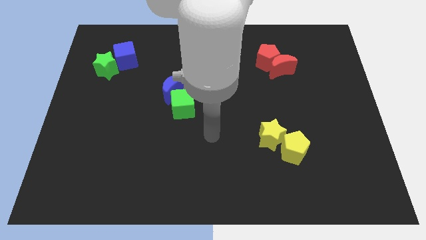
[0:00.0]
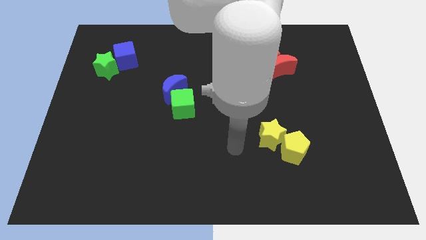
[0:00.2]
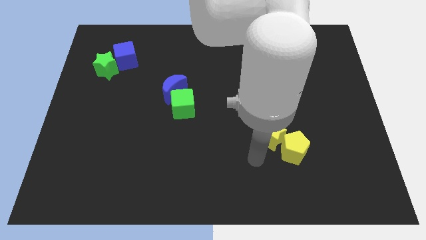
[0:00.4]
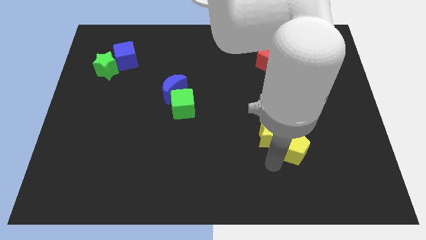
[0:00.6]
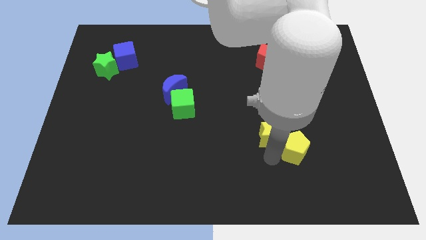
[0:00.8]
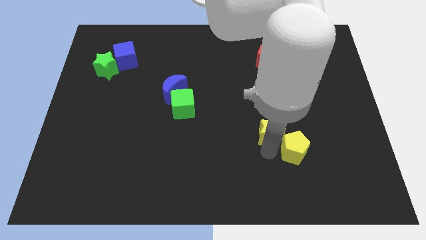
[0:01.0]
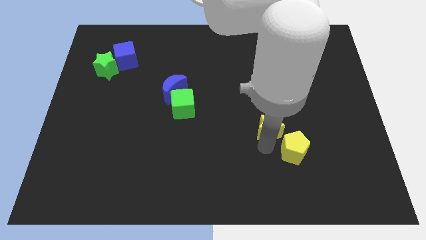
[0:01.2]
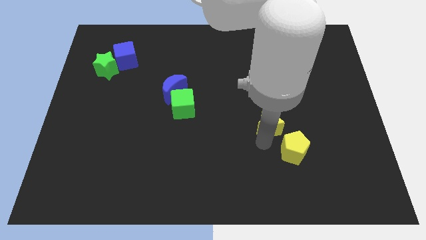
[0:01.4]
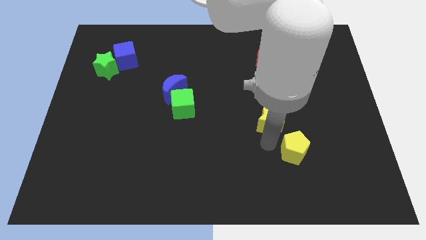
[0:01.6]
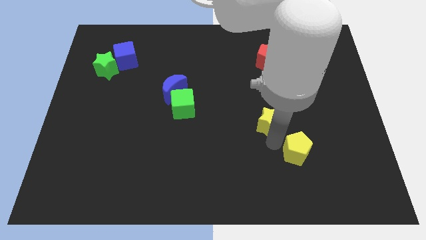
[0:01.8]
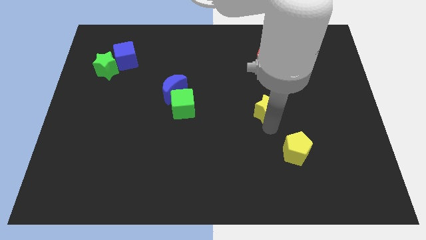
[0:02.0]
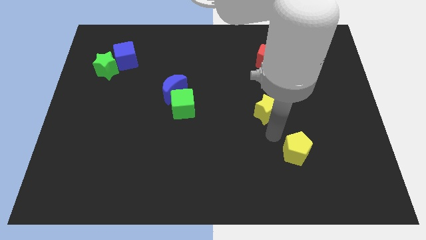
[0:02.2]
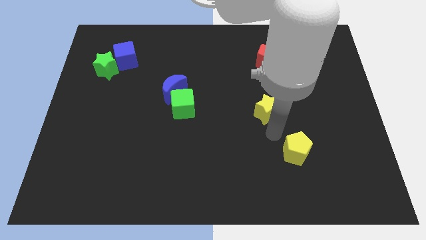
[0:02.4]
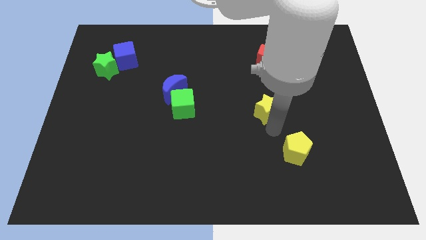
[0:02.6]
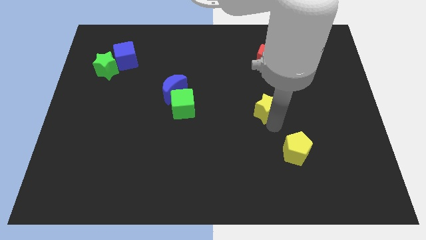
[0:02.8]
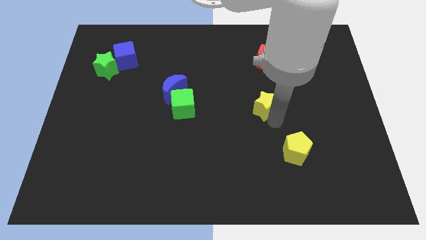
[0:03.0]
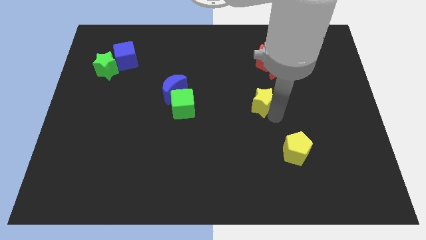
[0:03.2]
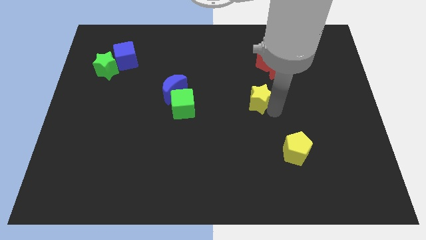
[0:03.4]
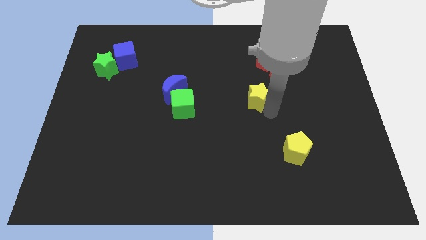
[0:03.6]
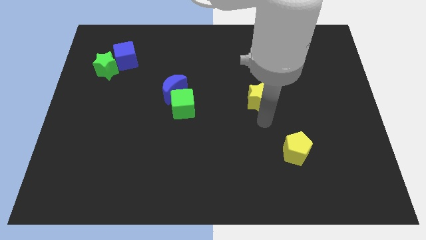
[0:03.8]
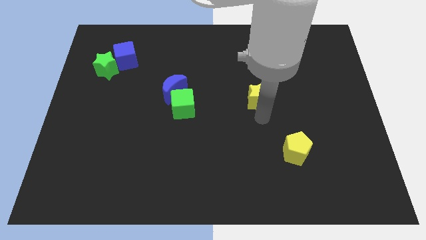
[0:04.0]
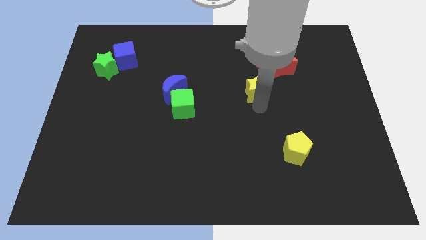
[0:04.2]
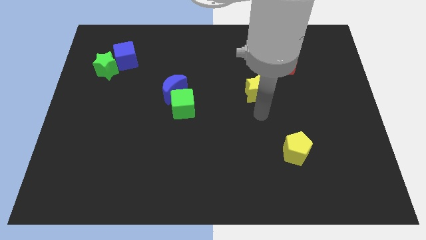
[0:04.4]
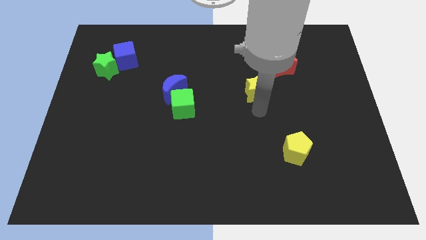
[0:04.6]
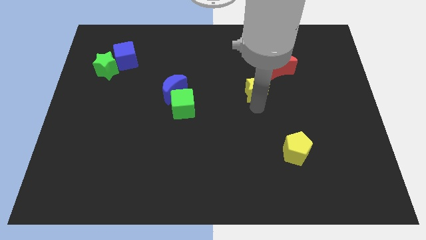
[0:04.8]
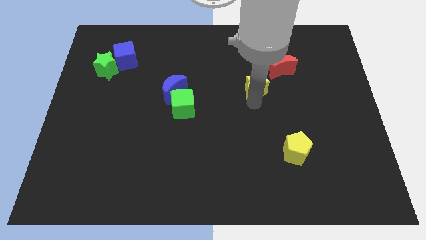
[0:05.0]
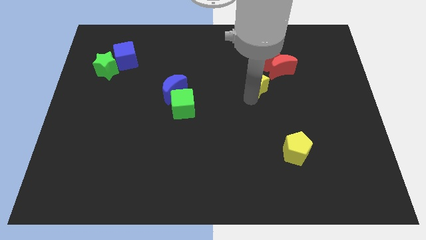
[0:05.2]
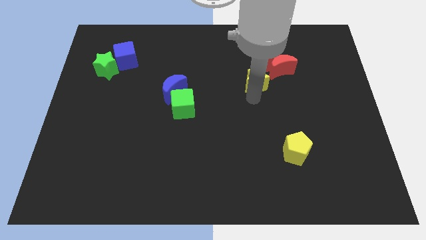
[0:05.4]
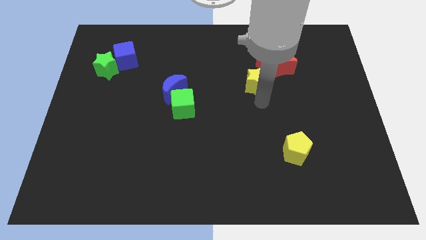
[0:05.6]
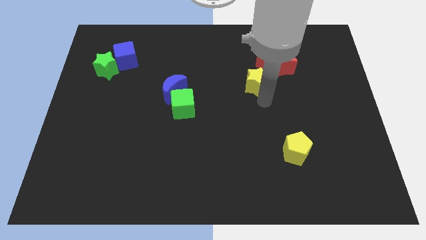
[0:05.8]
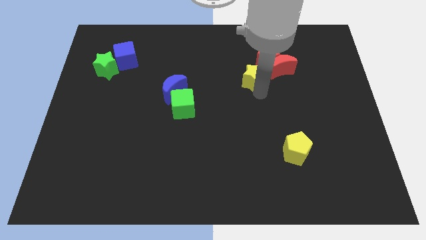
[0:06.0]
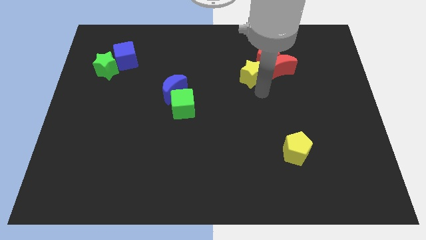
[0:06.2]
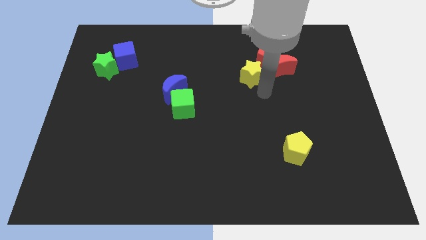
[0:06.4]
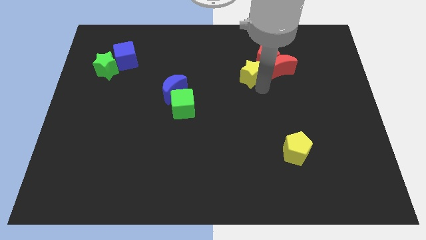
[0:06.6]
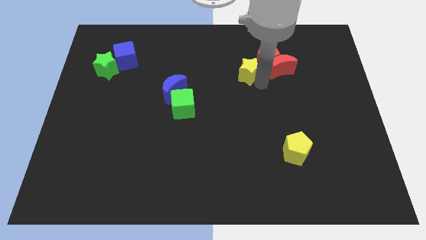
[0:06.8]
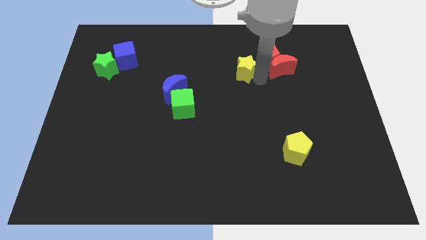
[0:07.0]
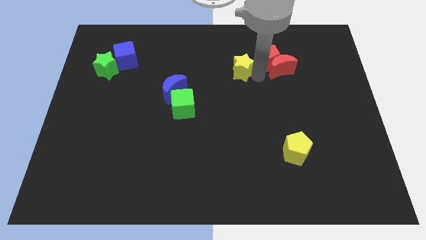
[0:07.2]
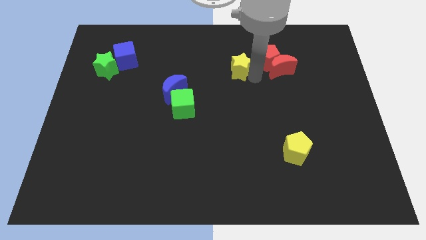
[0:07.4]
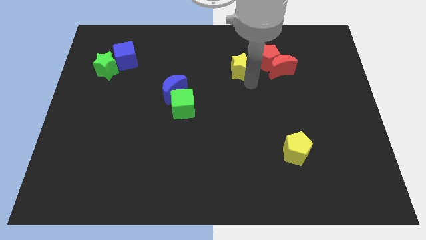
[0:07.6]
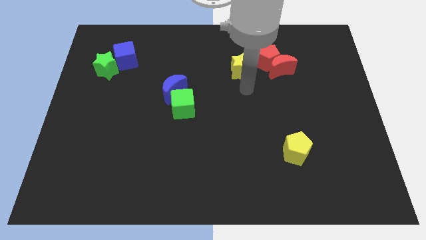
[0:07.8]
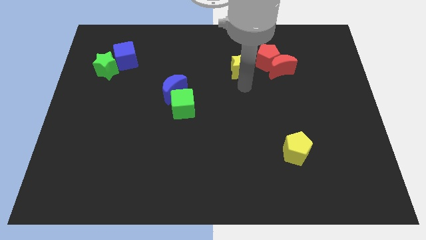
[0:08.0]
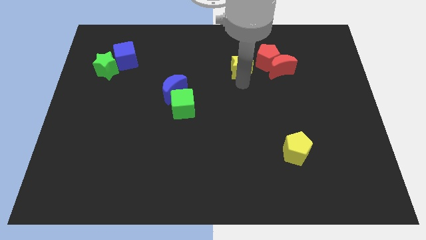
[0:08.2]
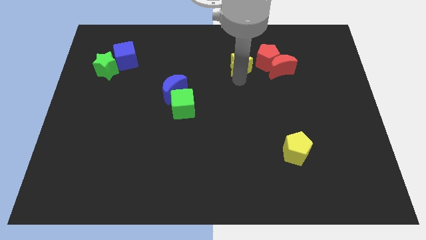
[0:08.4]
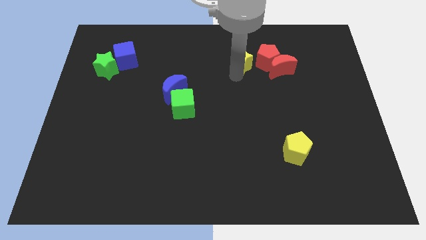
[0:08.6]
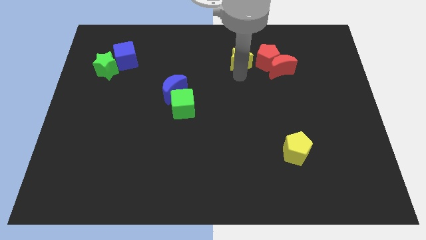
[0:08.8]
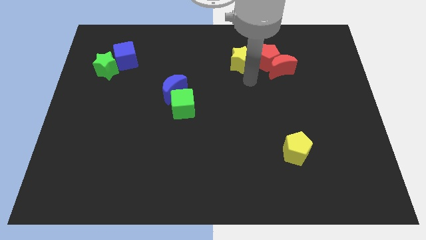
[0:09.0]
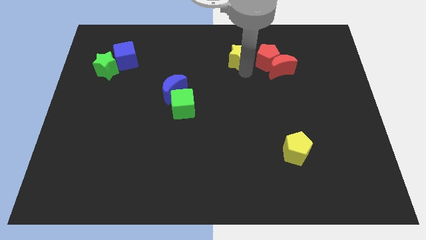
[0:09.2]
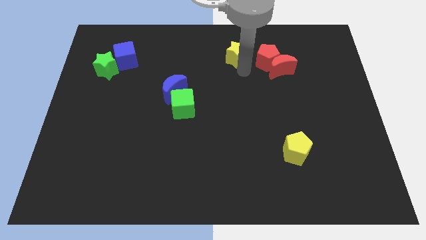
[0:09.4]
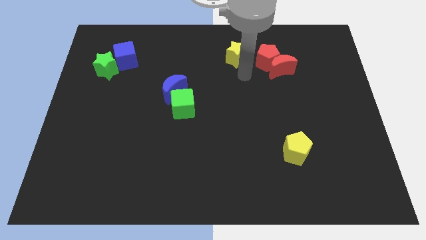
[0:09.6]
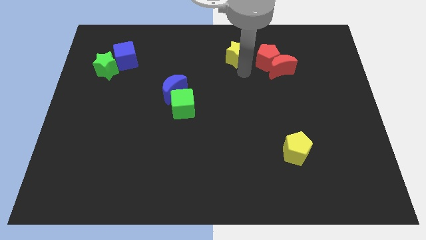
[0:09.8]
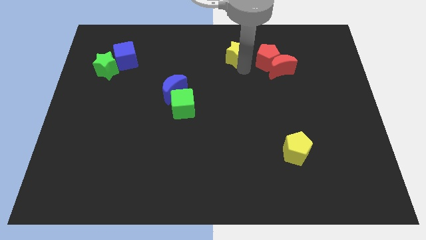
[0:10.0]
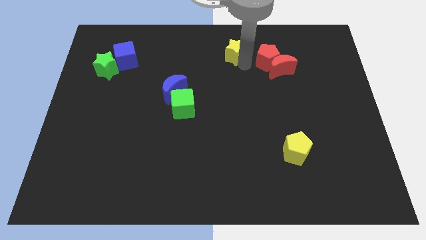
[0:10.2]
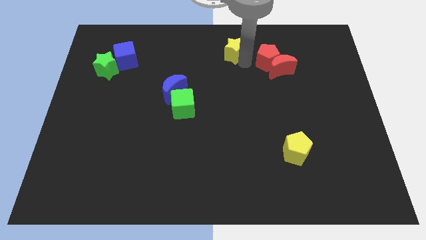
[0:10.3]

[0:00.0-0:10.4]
move the yellow star to the towards your base
